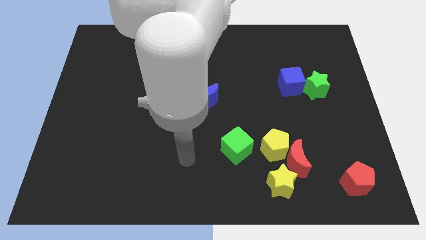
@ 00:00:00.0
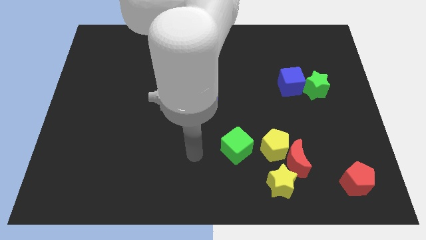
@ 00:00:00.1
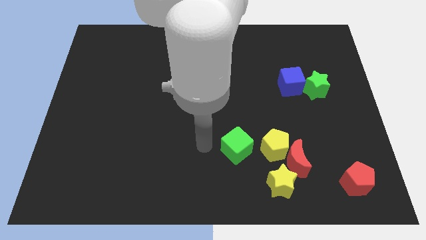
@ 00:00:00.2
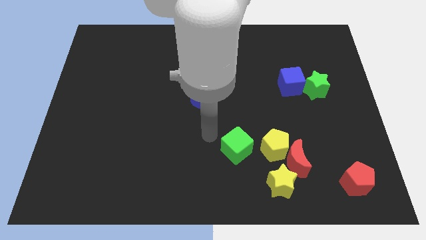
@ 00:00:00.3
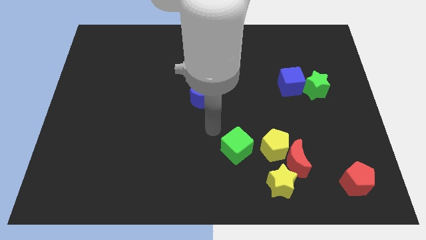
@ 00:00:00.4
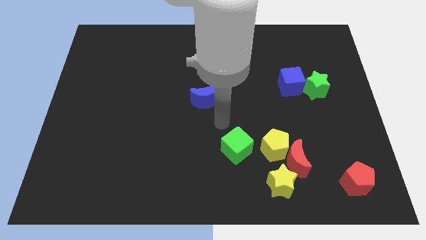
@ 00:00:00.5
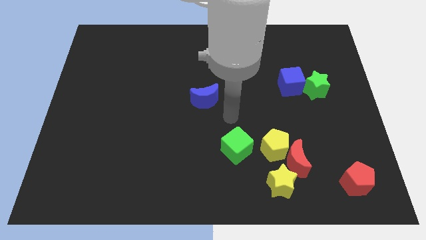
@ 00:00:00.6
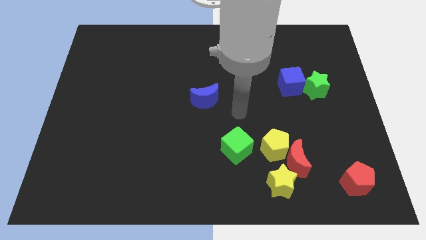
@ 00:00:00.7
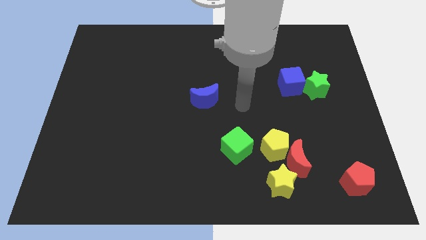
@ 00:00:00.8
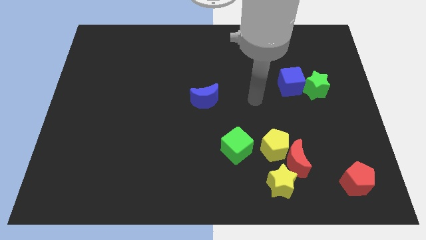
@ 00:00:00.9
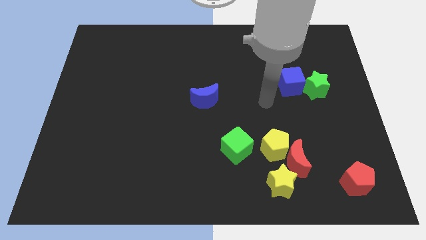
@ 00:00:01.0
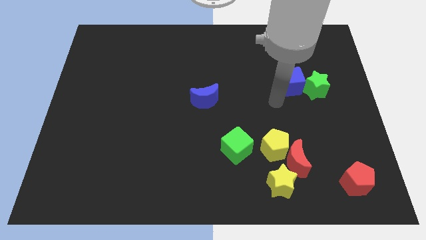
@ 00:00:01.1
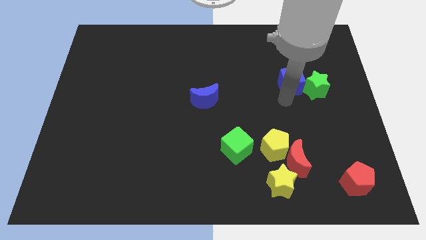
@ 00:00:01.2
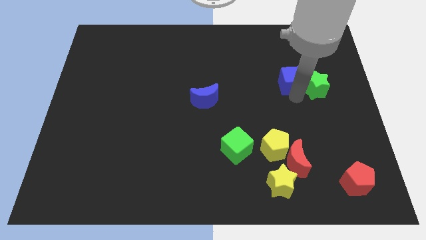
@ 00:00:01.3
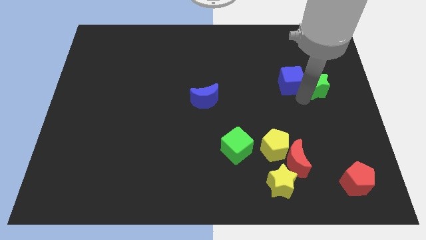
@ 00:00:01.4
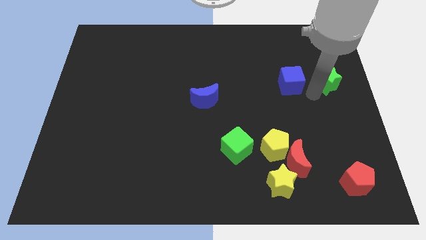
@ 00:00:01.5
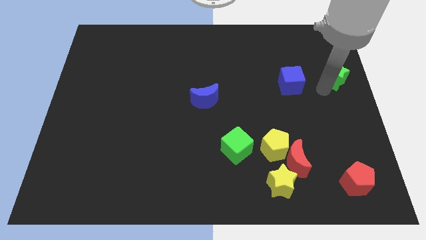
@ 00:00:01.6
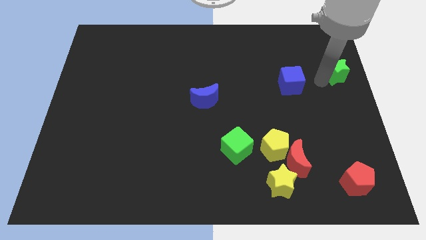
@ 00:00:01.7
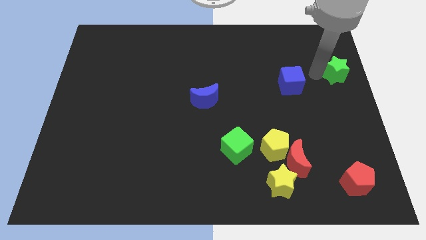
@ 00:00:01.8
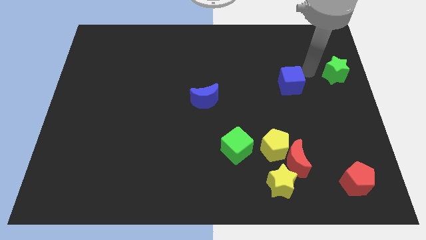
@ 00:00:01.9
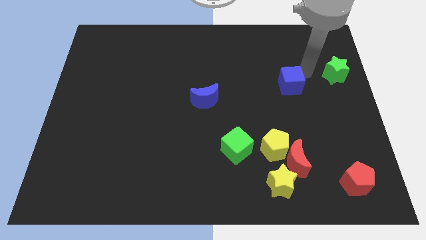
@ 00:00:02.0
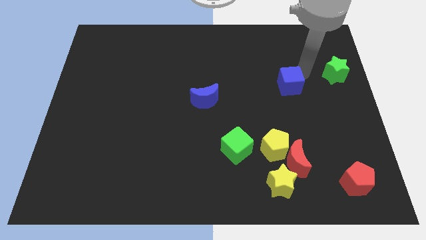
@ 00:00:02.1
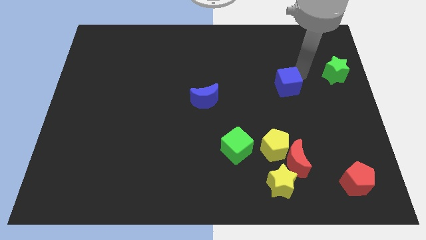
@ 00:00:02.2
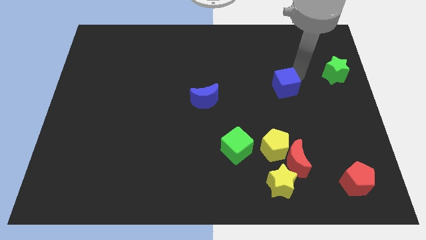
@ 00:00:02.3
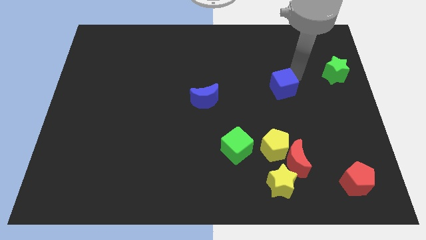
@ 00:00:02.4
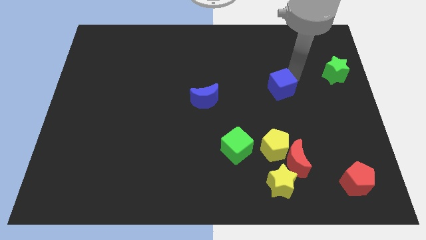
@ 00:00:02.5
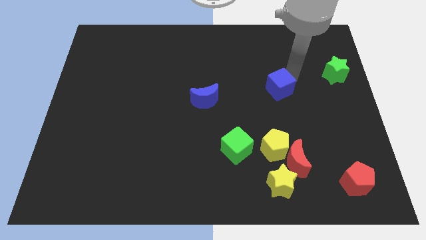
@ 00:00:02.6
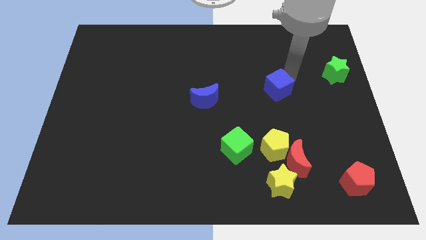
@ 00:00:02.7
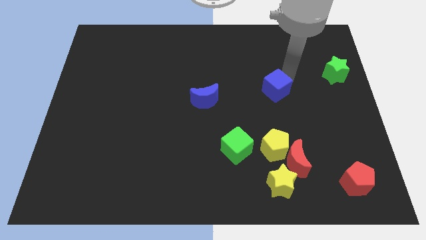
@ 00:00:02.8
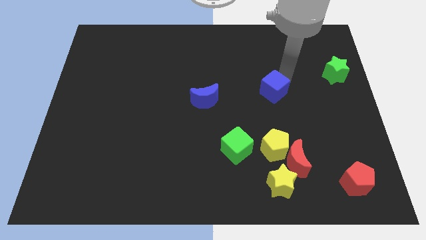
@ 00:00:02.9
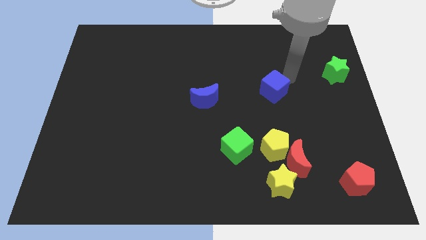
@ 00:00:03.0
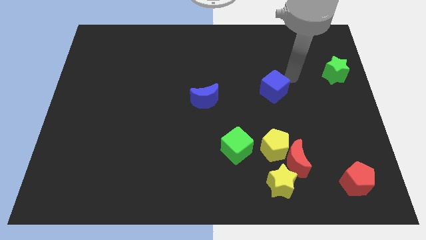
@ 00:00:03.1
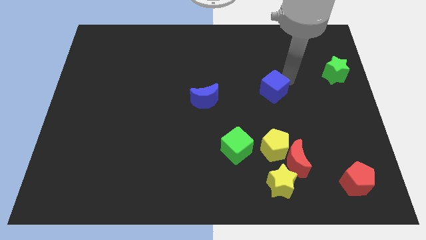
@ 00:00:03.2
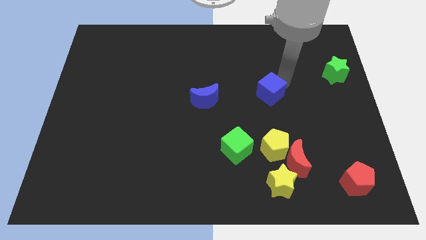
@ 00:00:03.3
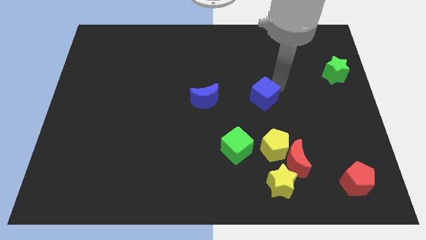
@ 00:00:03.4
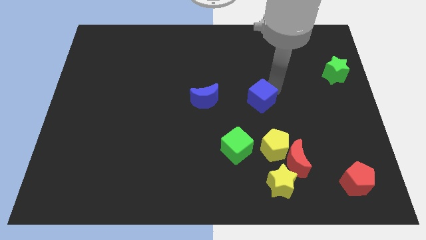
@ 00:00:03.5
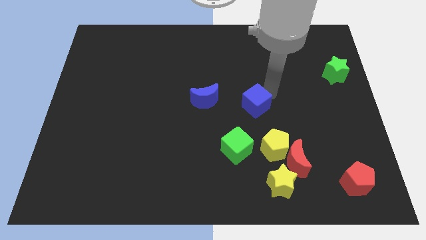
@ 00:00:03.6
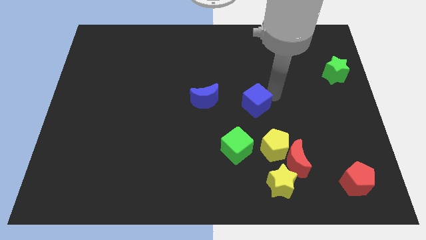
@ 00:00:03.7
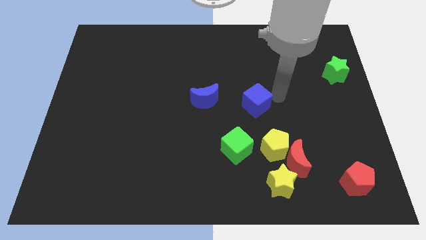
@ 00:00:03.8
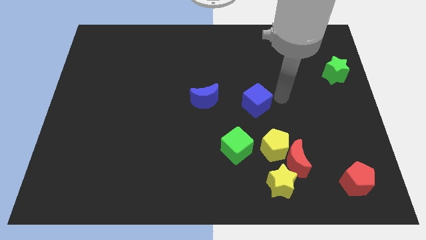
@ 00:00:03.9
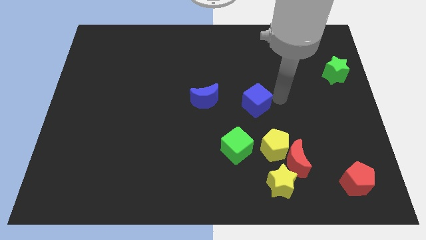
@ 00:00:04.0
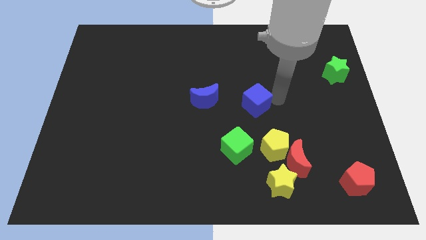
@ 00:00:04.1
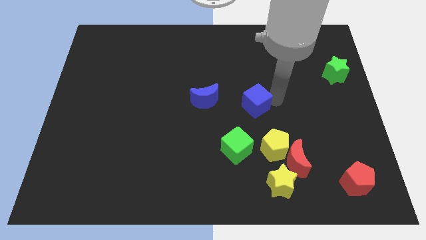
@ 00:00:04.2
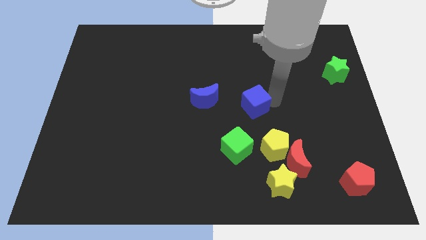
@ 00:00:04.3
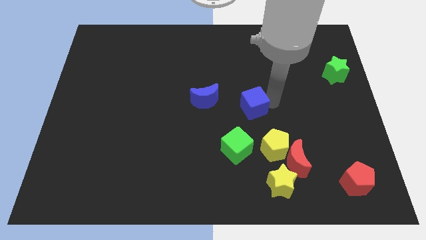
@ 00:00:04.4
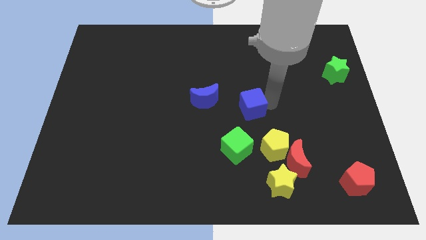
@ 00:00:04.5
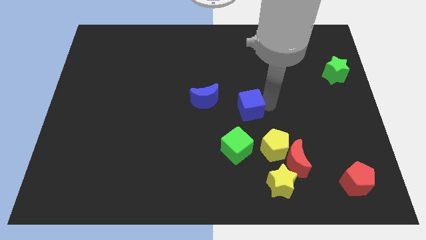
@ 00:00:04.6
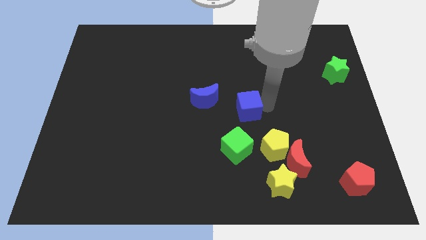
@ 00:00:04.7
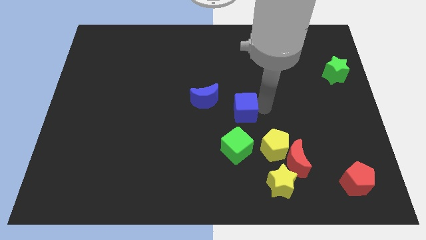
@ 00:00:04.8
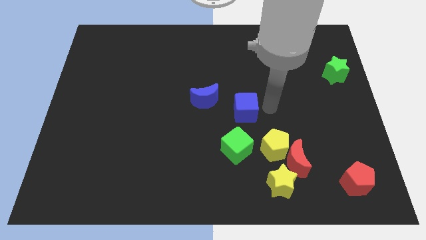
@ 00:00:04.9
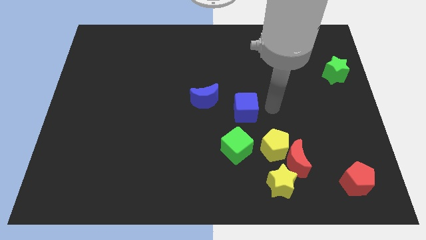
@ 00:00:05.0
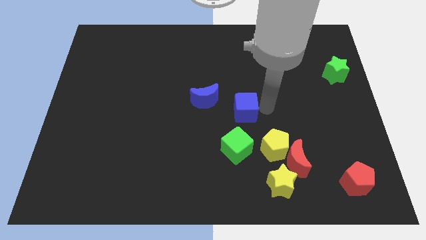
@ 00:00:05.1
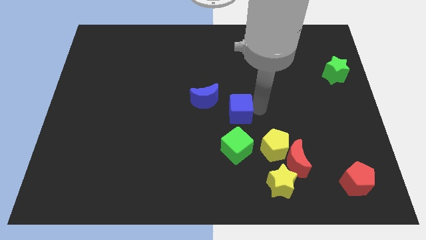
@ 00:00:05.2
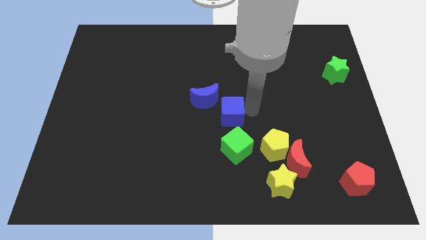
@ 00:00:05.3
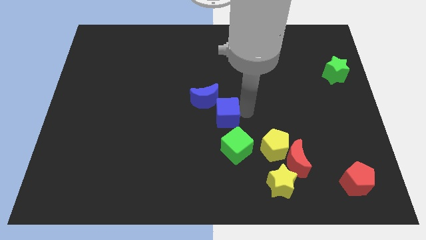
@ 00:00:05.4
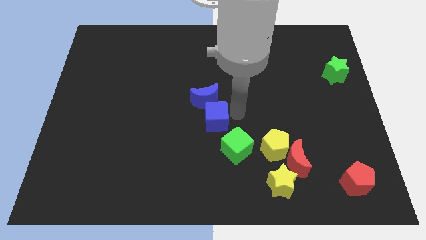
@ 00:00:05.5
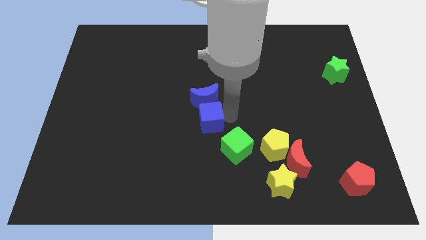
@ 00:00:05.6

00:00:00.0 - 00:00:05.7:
put the blue cube diagonally down and to the left of the blue moon

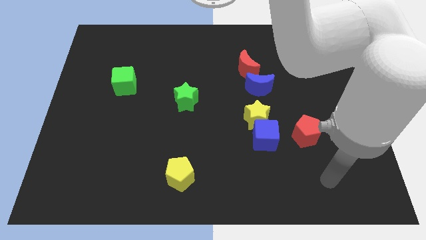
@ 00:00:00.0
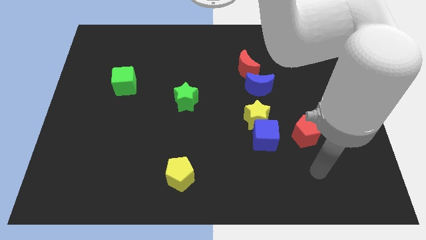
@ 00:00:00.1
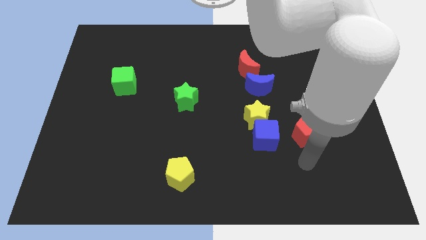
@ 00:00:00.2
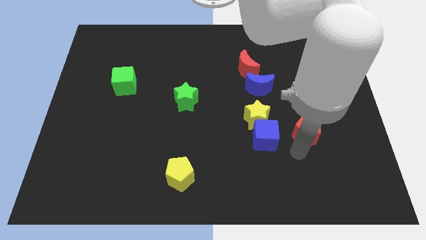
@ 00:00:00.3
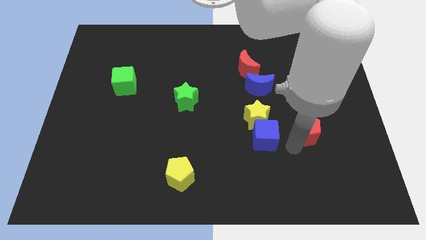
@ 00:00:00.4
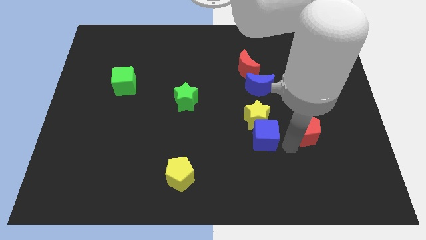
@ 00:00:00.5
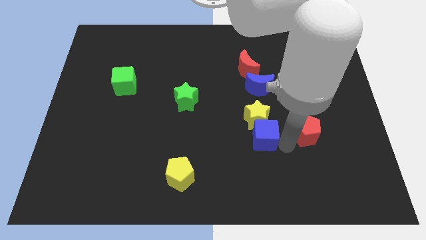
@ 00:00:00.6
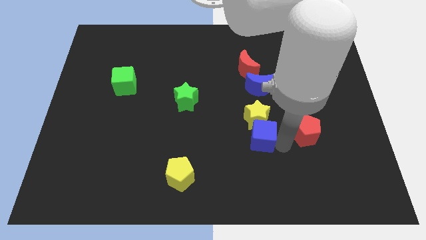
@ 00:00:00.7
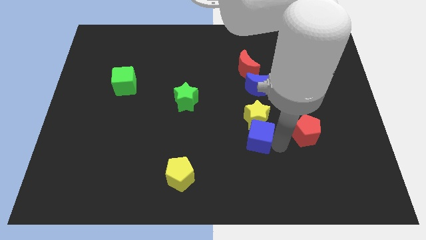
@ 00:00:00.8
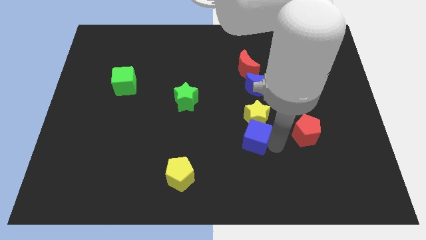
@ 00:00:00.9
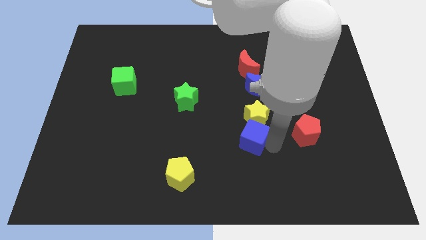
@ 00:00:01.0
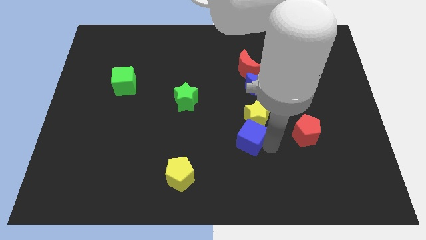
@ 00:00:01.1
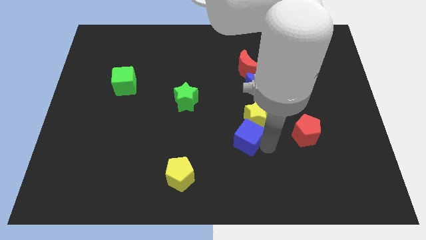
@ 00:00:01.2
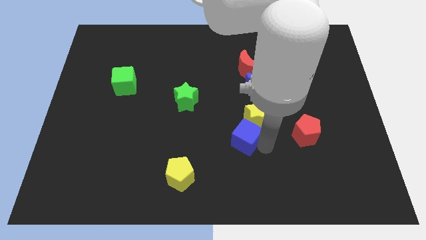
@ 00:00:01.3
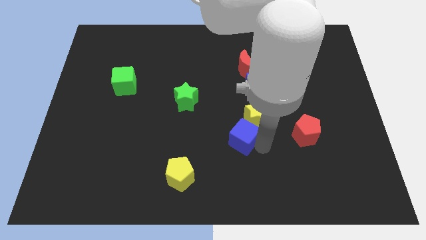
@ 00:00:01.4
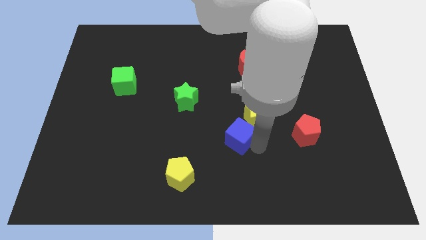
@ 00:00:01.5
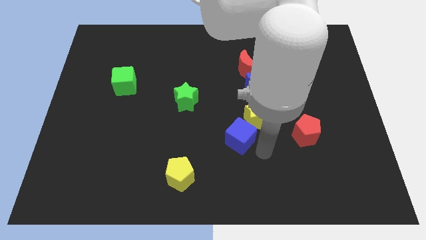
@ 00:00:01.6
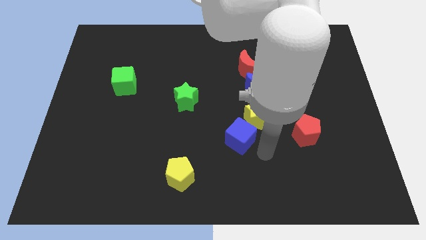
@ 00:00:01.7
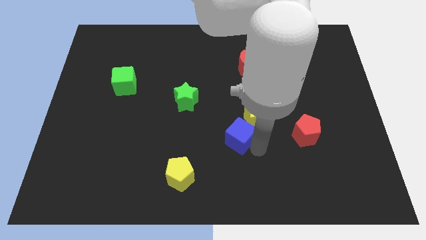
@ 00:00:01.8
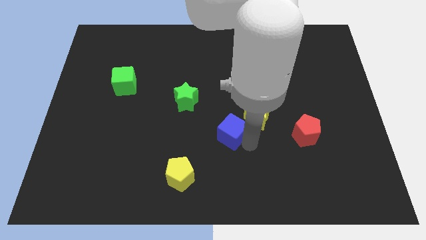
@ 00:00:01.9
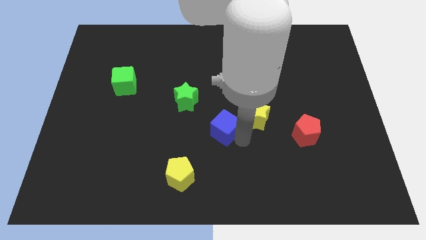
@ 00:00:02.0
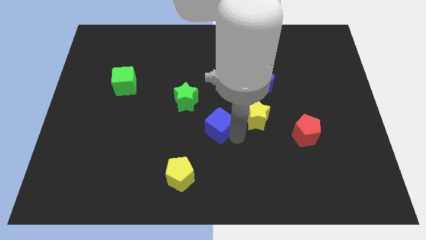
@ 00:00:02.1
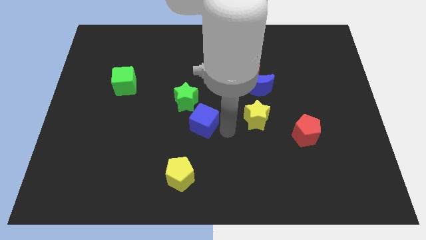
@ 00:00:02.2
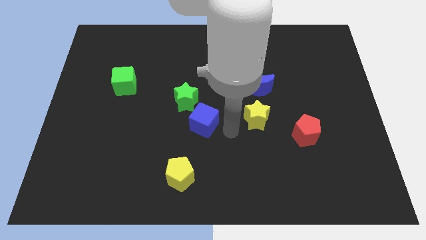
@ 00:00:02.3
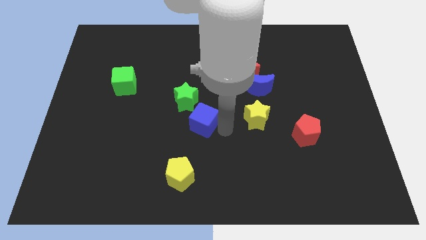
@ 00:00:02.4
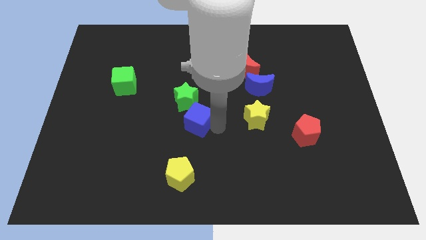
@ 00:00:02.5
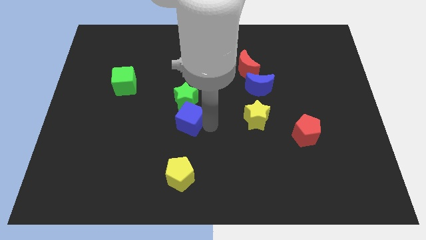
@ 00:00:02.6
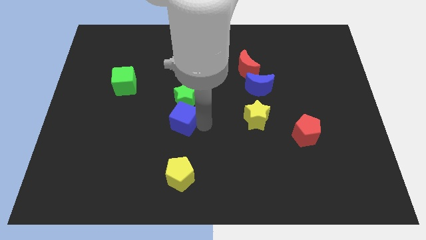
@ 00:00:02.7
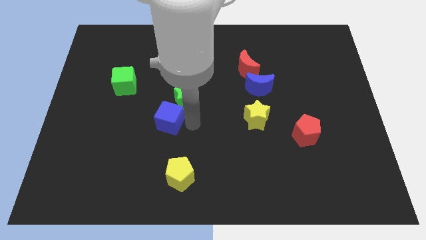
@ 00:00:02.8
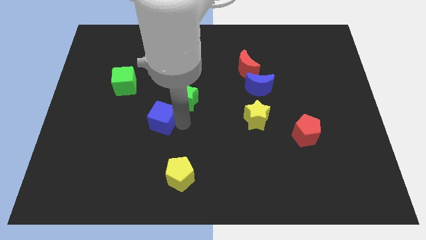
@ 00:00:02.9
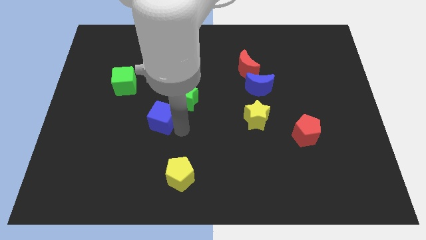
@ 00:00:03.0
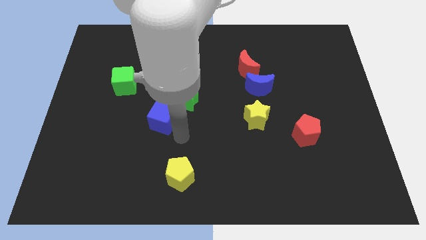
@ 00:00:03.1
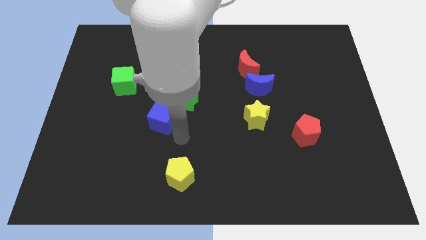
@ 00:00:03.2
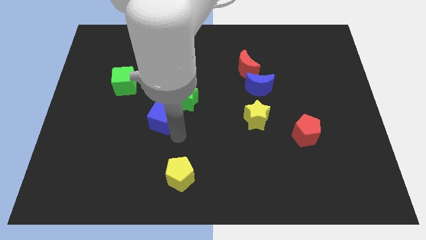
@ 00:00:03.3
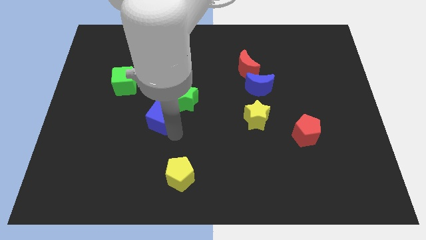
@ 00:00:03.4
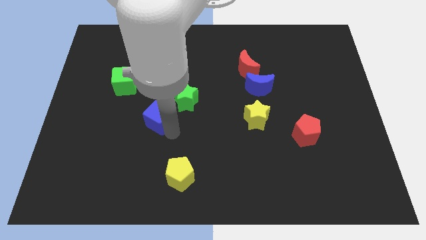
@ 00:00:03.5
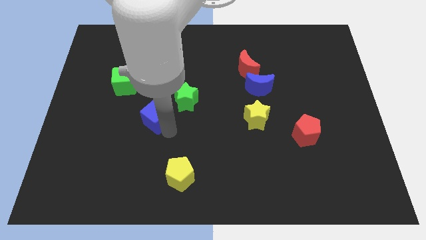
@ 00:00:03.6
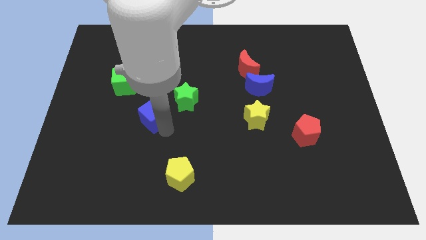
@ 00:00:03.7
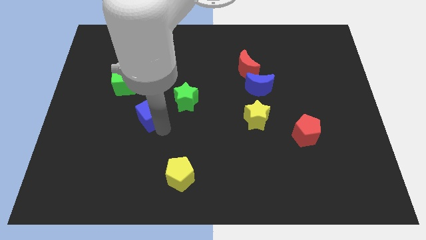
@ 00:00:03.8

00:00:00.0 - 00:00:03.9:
put the blue cube to the bottom right of the green cube
